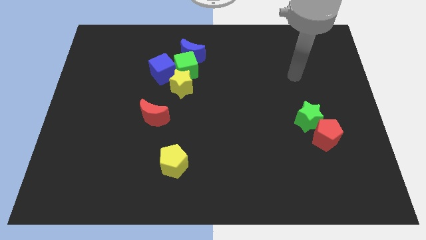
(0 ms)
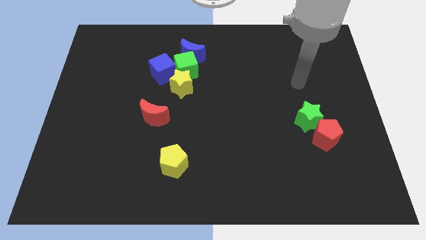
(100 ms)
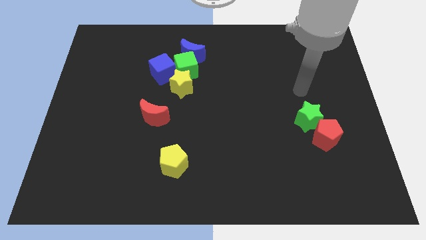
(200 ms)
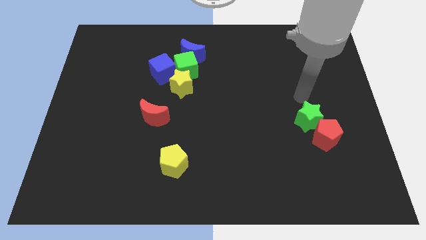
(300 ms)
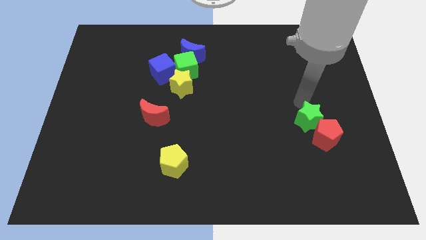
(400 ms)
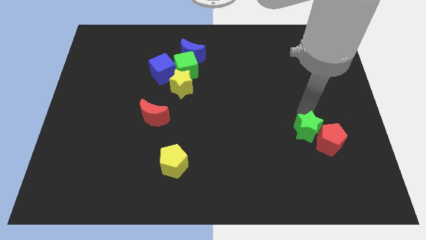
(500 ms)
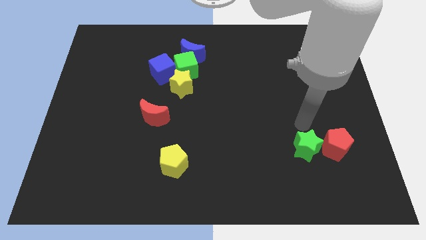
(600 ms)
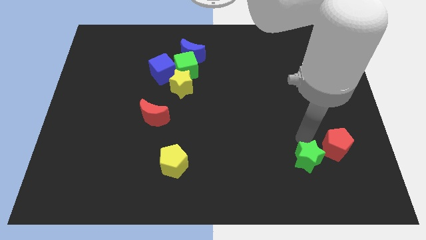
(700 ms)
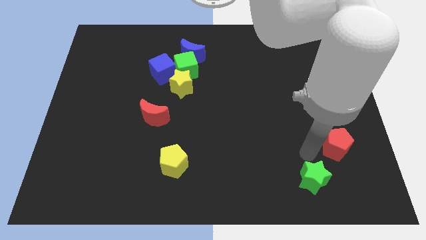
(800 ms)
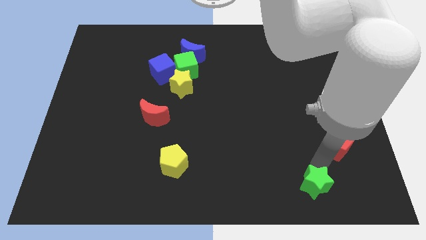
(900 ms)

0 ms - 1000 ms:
separate the red pentagon from the green star

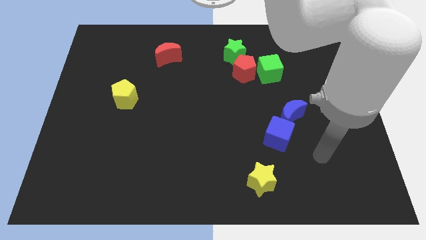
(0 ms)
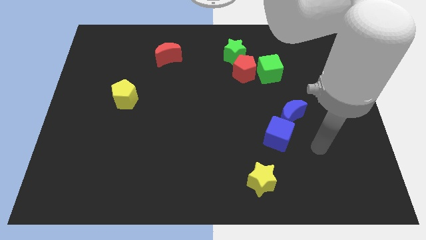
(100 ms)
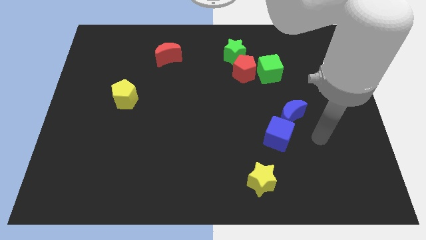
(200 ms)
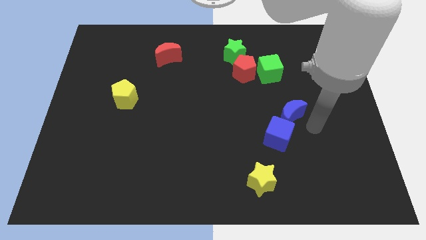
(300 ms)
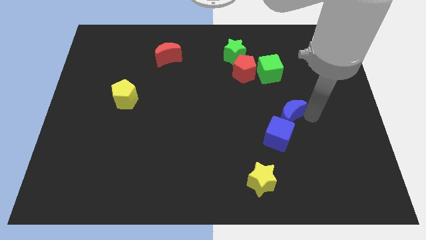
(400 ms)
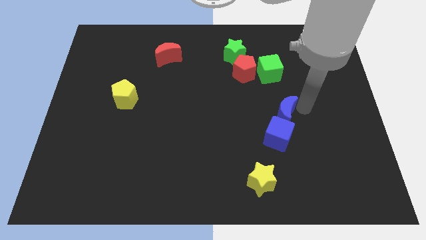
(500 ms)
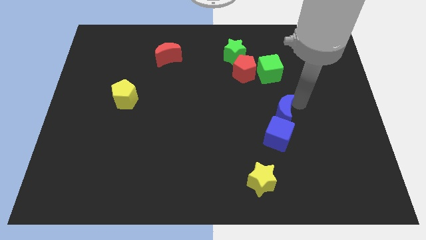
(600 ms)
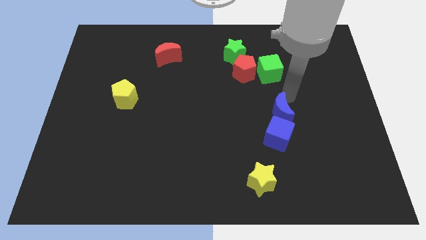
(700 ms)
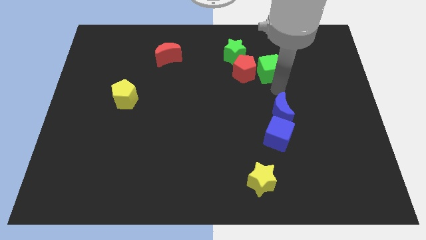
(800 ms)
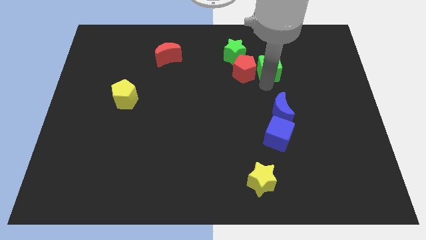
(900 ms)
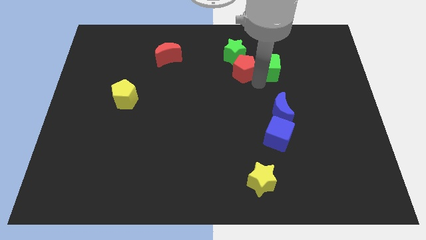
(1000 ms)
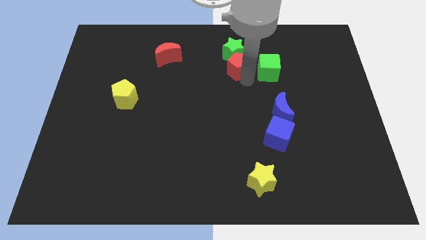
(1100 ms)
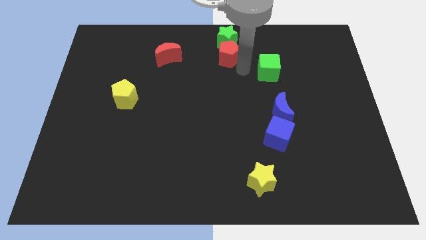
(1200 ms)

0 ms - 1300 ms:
pull the green cube apart from the red pentagon

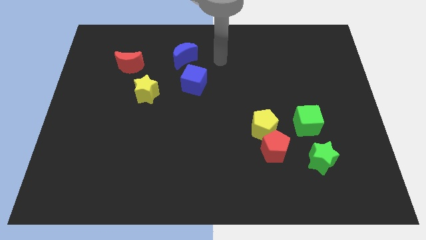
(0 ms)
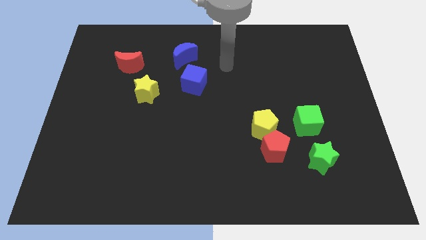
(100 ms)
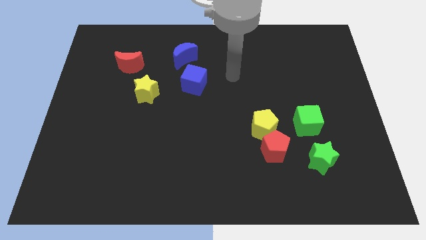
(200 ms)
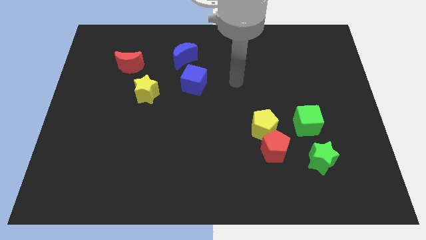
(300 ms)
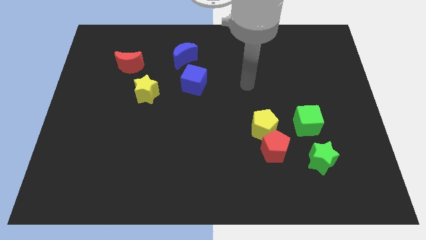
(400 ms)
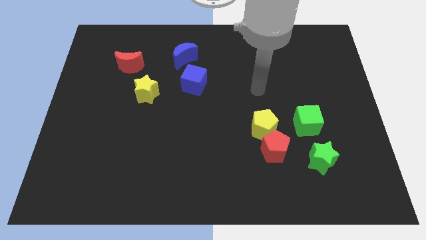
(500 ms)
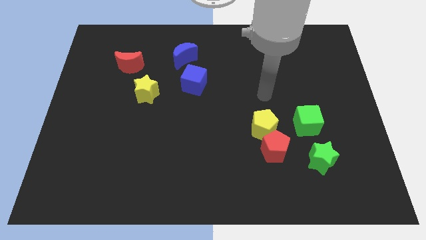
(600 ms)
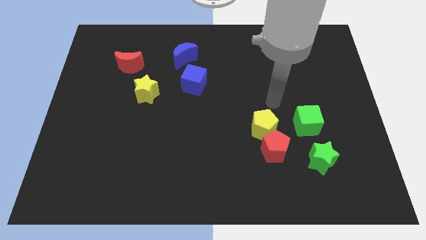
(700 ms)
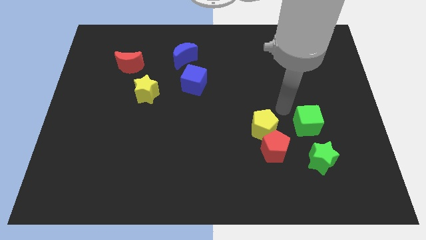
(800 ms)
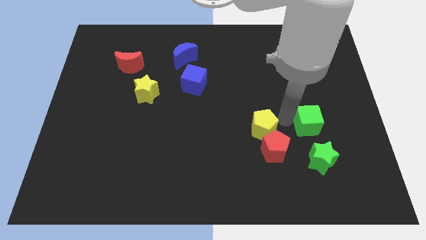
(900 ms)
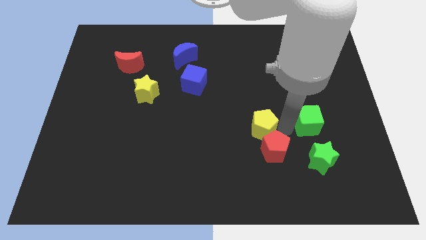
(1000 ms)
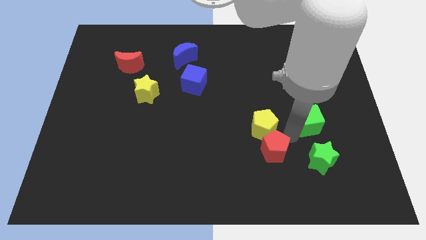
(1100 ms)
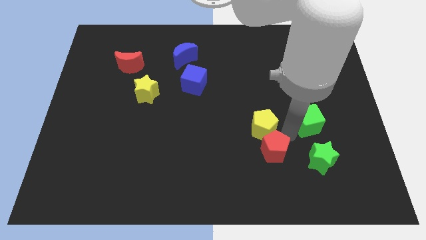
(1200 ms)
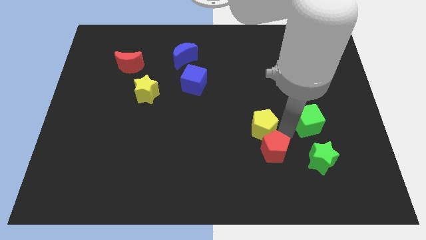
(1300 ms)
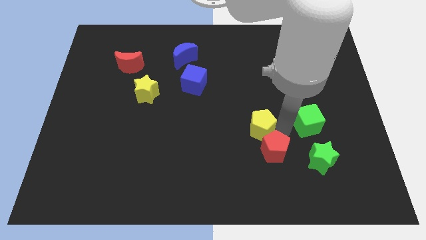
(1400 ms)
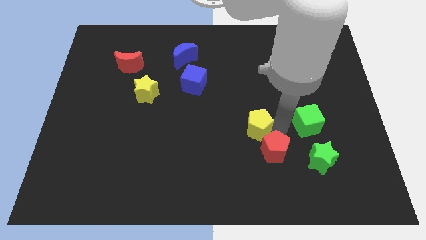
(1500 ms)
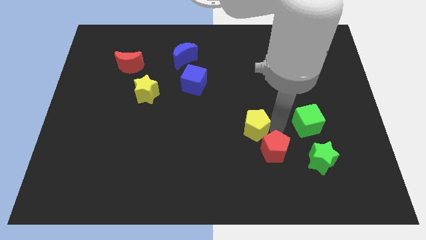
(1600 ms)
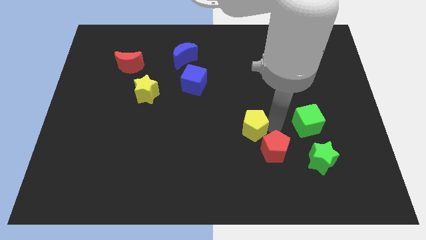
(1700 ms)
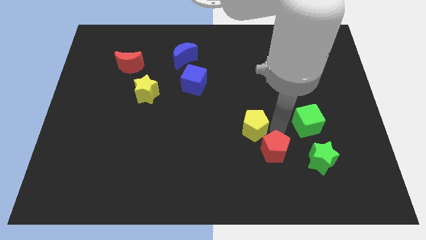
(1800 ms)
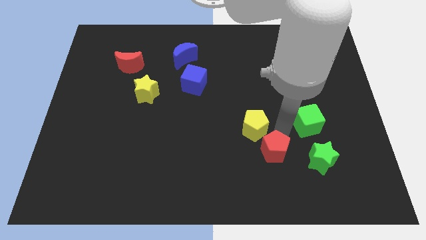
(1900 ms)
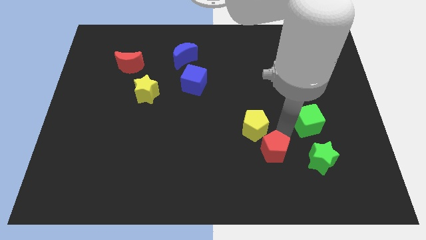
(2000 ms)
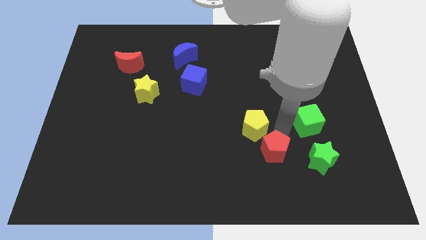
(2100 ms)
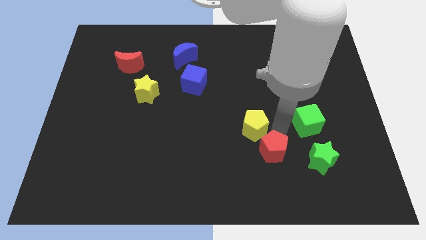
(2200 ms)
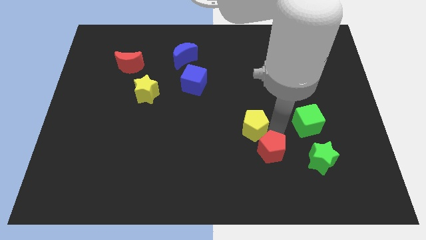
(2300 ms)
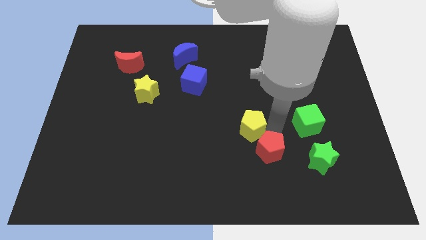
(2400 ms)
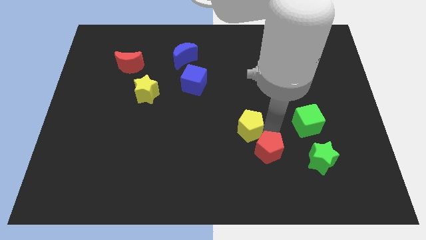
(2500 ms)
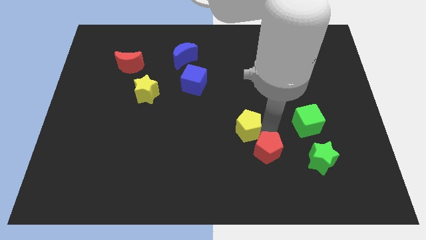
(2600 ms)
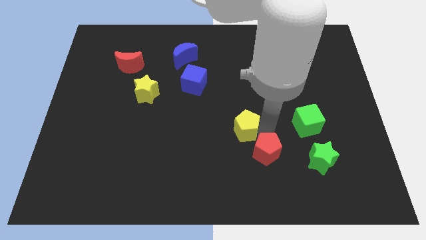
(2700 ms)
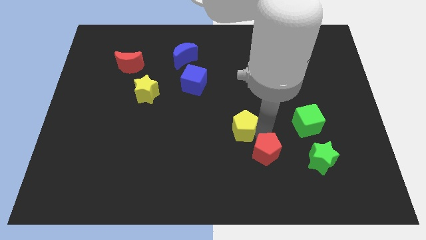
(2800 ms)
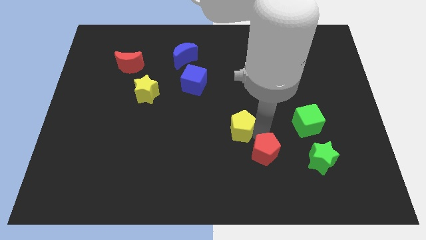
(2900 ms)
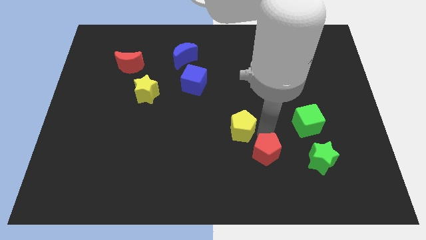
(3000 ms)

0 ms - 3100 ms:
pull the yellow pentagon apart from the red pentagon and green cube

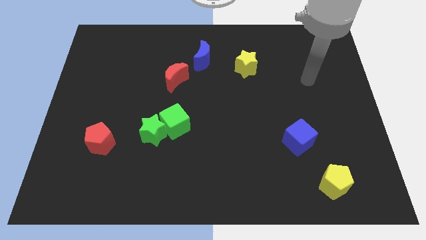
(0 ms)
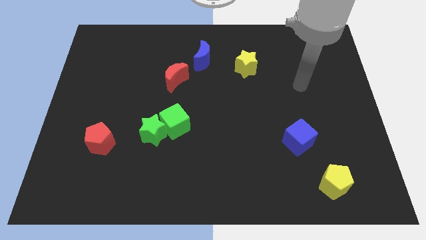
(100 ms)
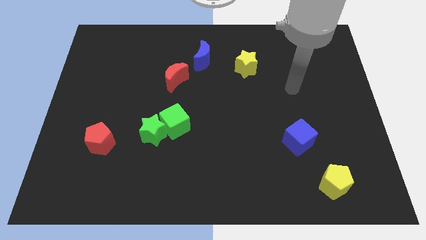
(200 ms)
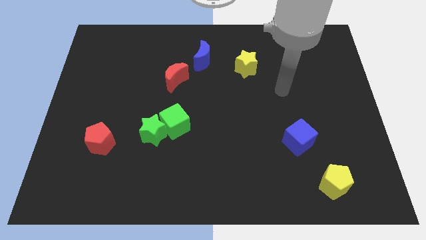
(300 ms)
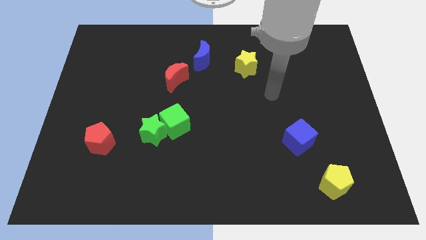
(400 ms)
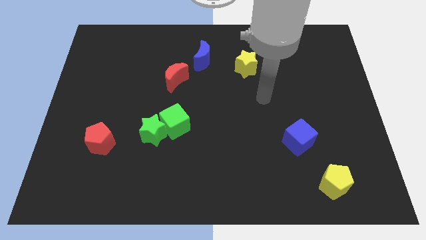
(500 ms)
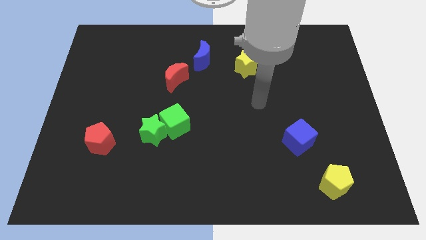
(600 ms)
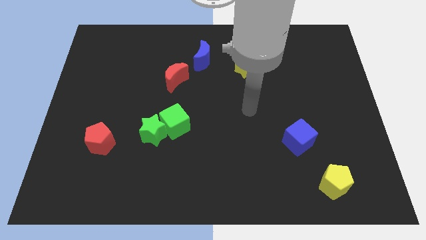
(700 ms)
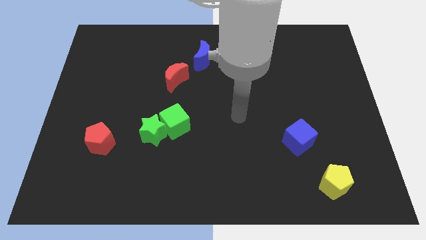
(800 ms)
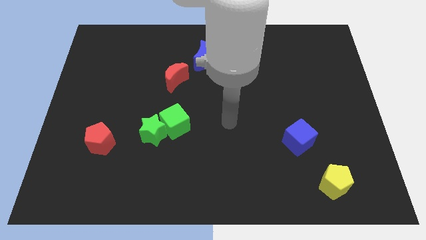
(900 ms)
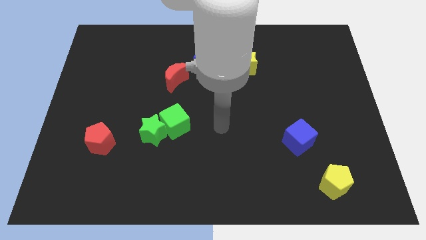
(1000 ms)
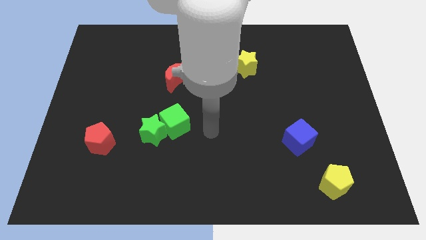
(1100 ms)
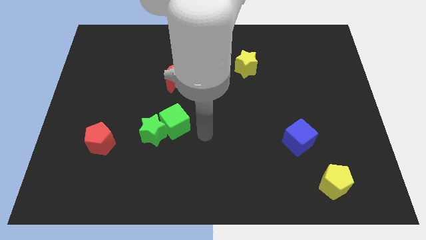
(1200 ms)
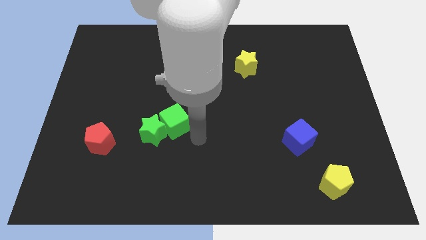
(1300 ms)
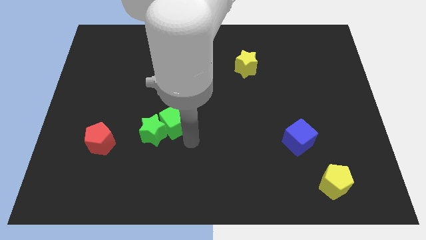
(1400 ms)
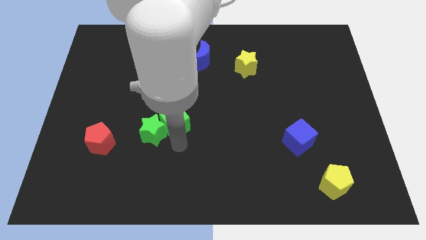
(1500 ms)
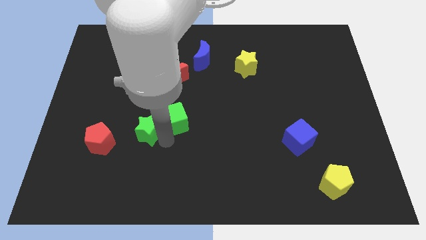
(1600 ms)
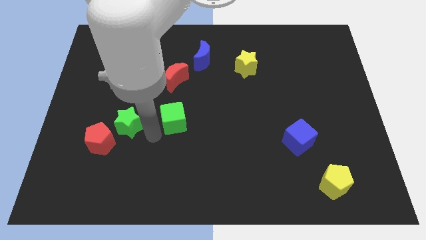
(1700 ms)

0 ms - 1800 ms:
move the green cube away from the green star

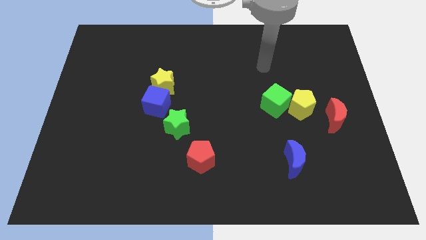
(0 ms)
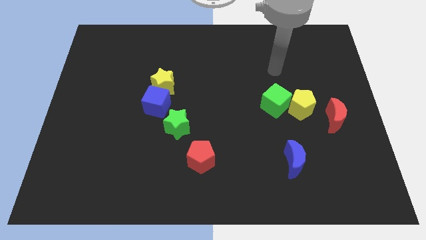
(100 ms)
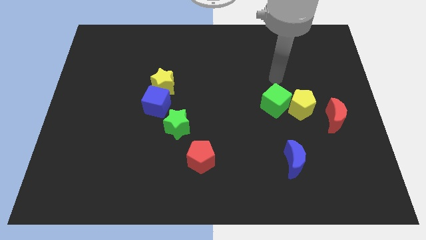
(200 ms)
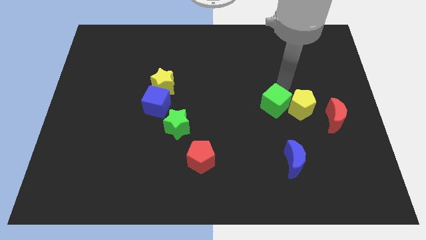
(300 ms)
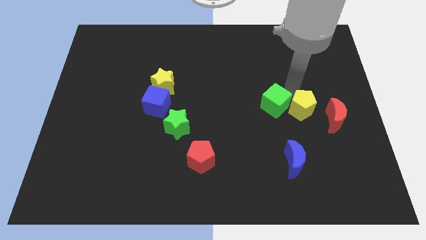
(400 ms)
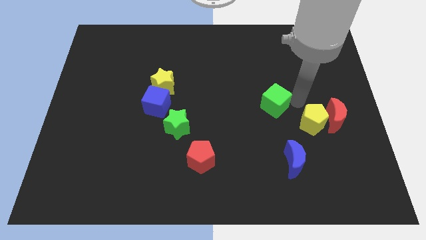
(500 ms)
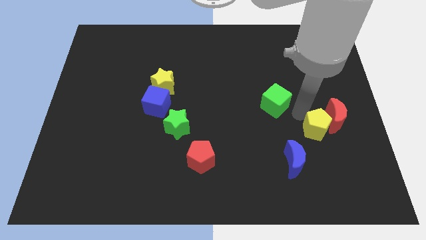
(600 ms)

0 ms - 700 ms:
pull the green cube apart from the yellow pentagon

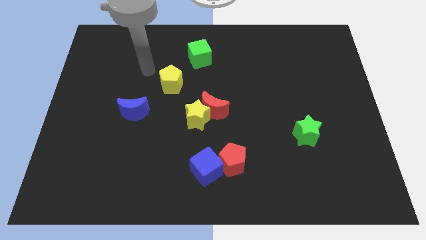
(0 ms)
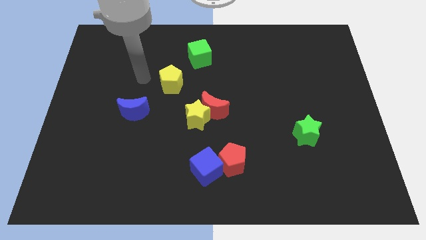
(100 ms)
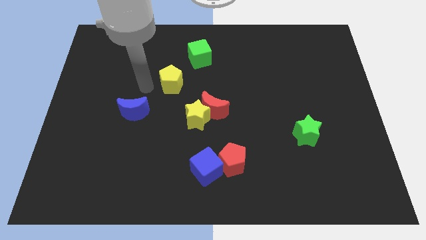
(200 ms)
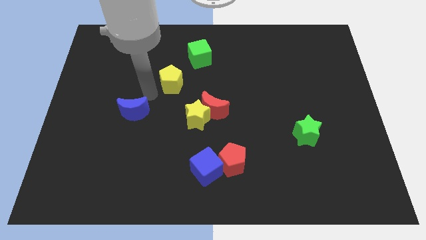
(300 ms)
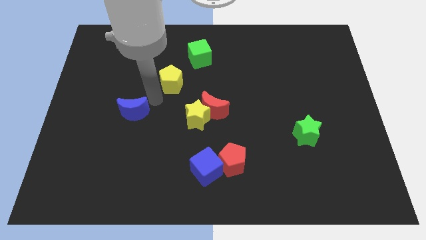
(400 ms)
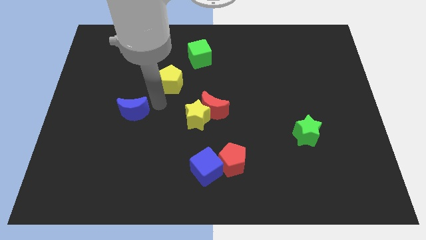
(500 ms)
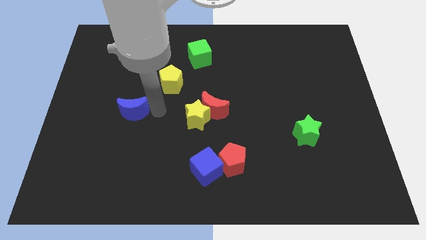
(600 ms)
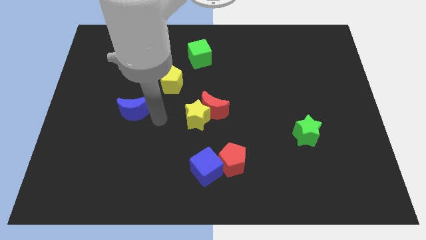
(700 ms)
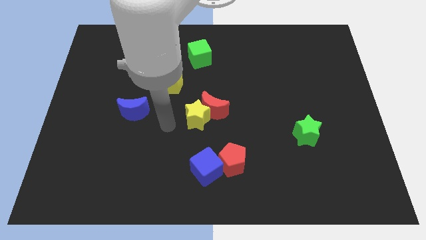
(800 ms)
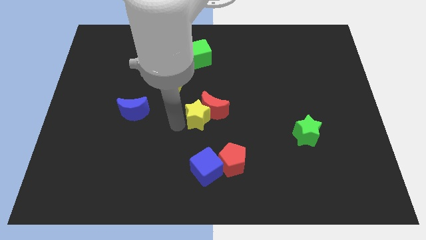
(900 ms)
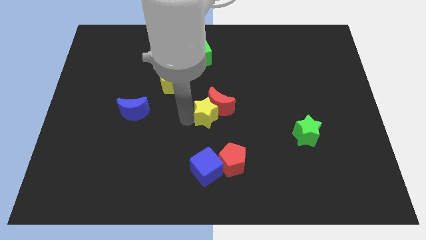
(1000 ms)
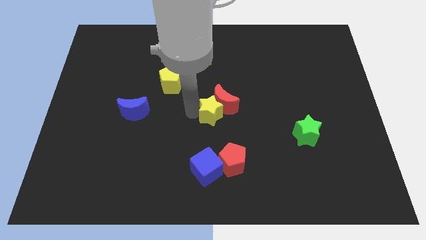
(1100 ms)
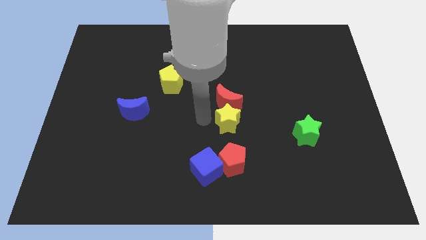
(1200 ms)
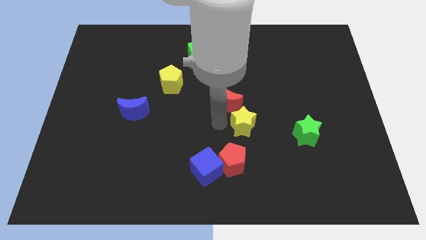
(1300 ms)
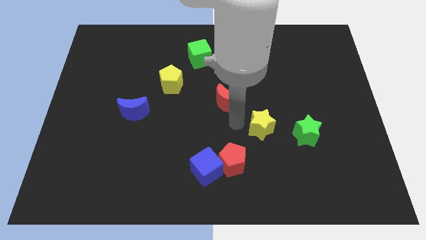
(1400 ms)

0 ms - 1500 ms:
separate the red moon from the yellow star

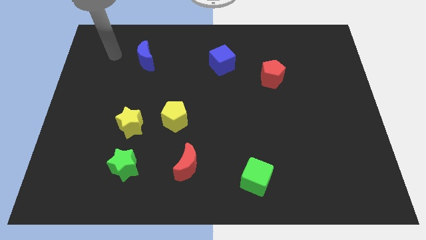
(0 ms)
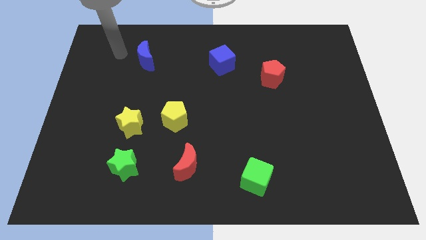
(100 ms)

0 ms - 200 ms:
move the yellow star away from the yellow pentagon
